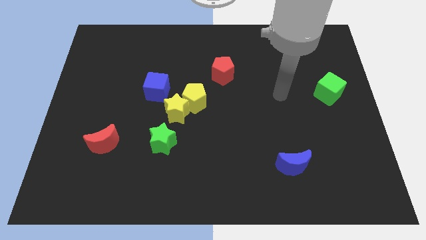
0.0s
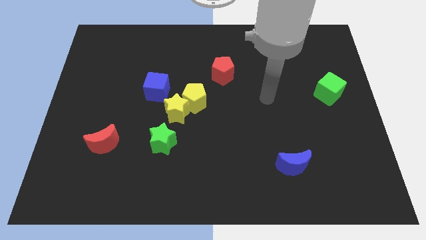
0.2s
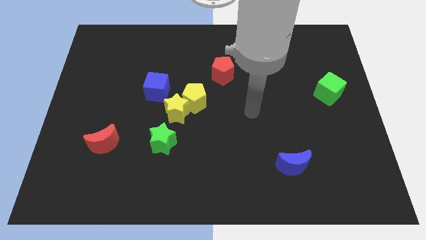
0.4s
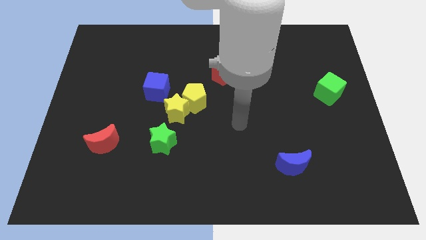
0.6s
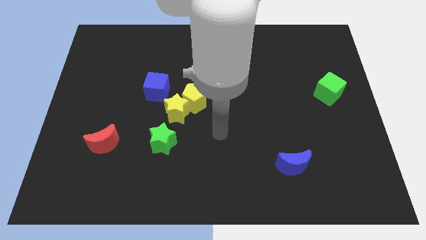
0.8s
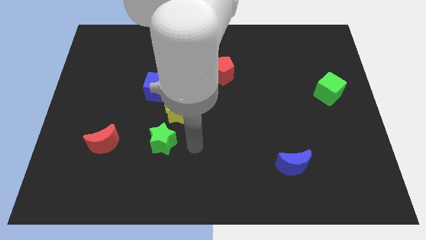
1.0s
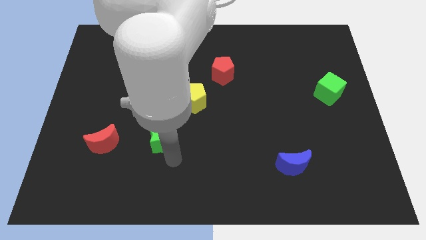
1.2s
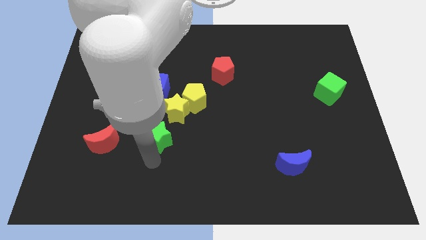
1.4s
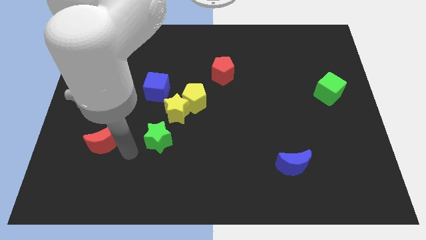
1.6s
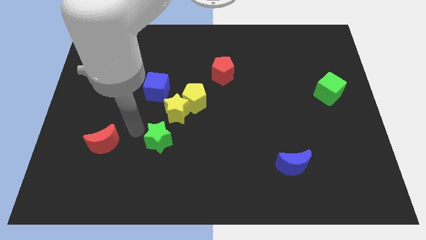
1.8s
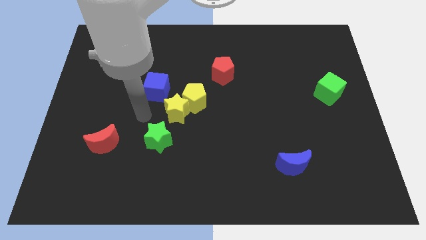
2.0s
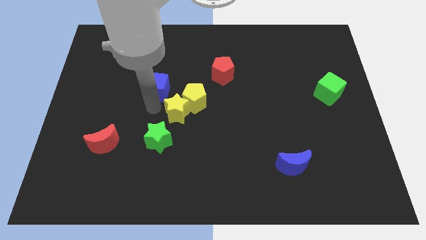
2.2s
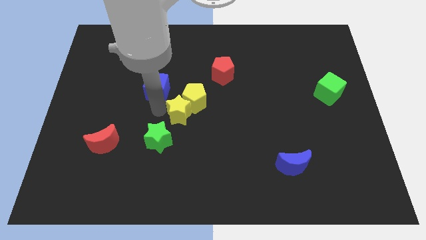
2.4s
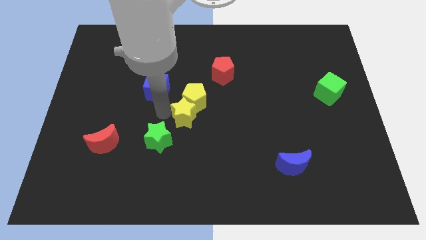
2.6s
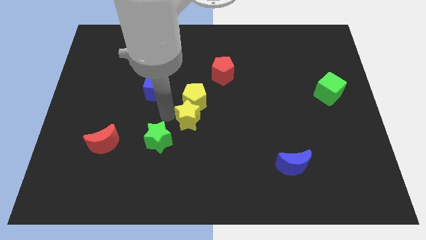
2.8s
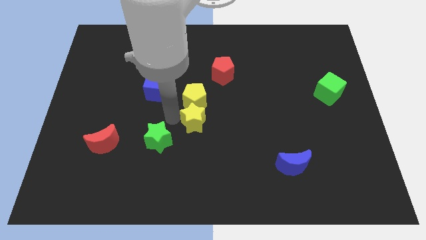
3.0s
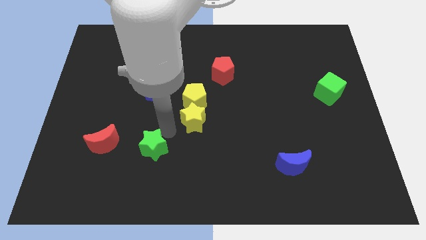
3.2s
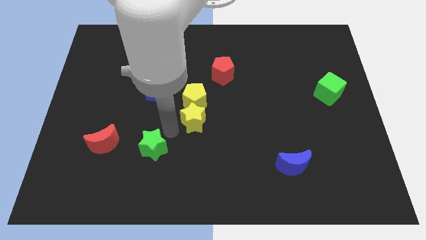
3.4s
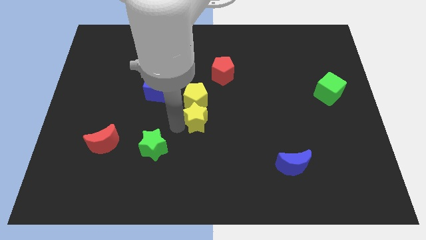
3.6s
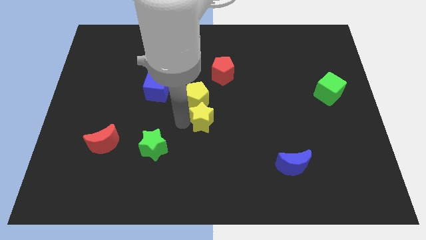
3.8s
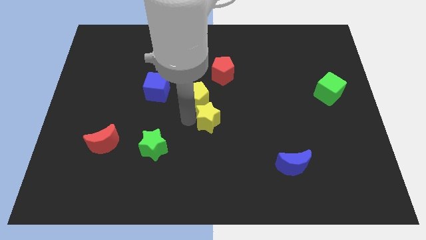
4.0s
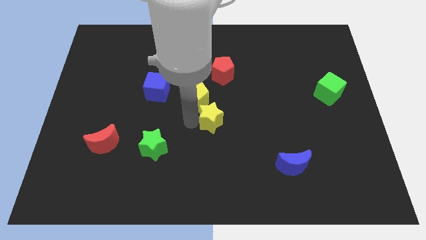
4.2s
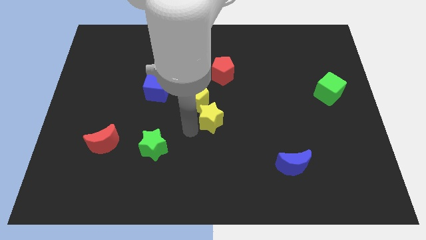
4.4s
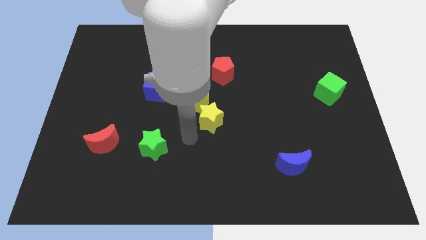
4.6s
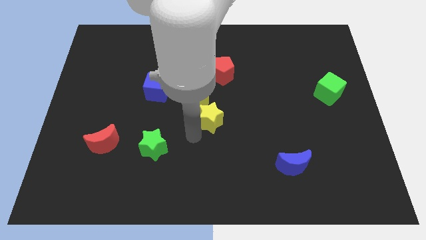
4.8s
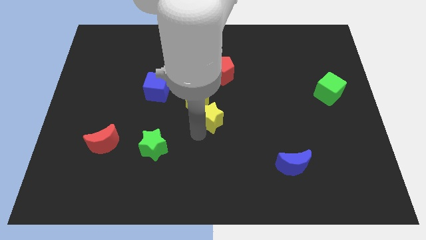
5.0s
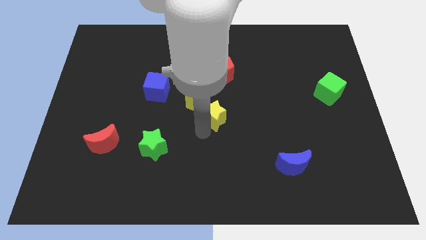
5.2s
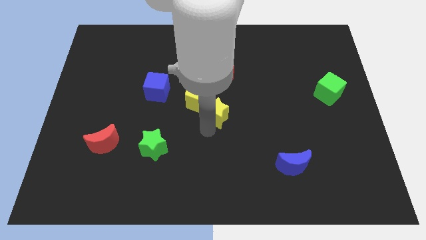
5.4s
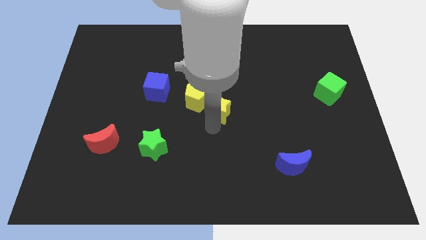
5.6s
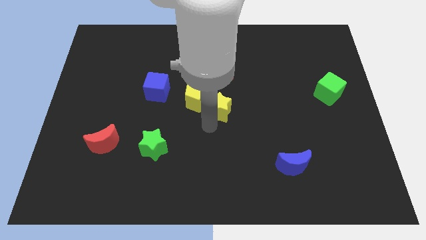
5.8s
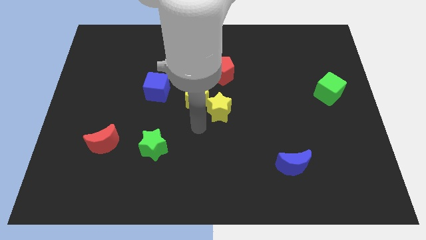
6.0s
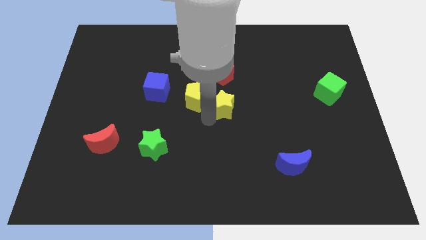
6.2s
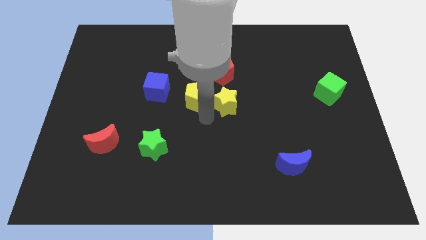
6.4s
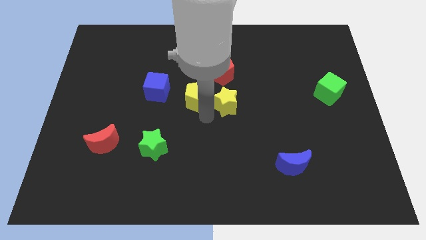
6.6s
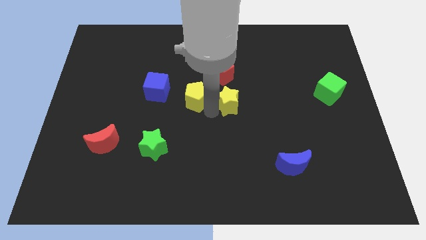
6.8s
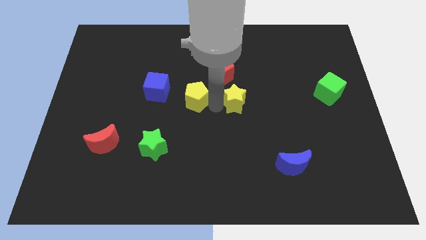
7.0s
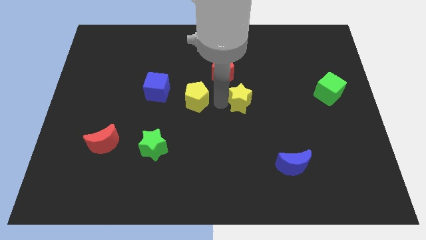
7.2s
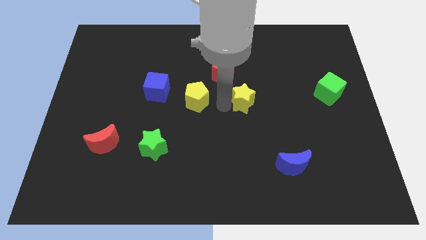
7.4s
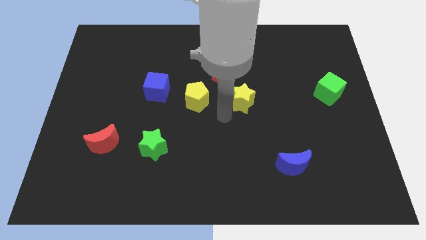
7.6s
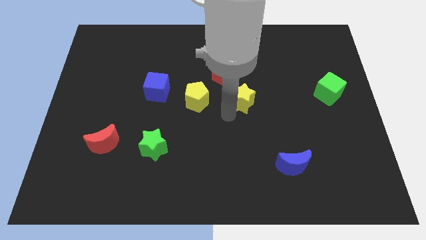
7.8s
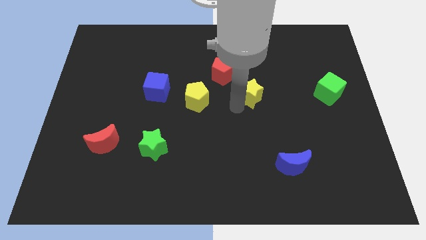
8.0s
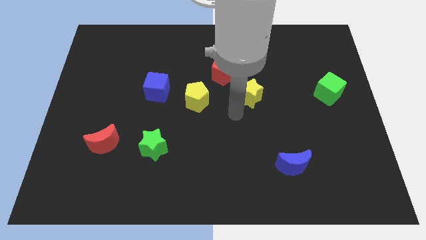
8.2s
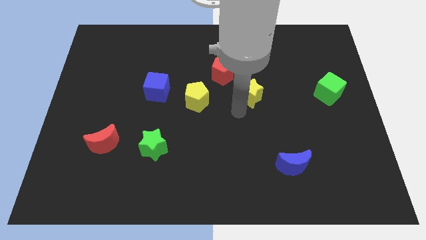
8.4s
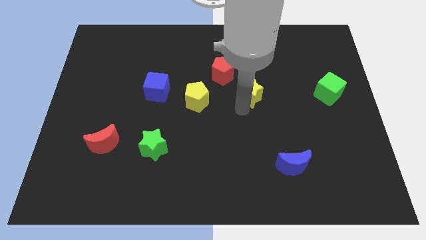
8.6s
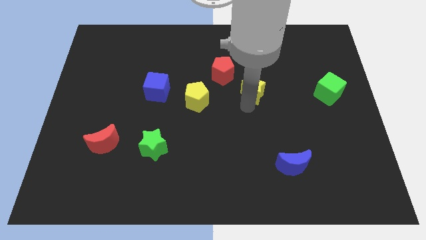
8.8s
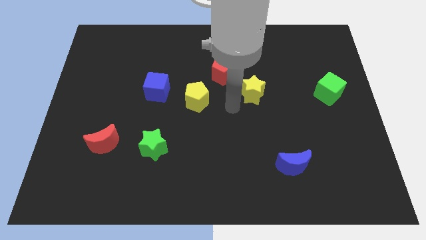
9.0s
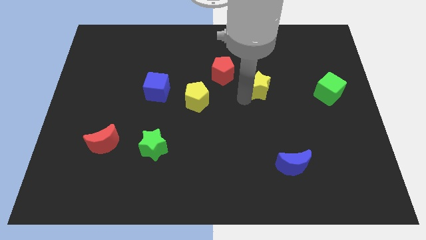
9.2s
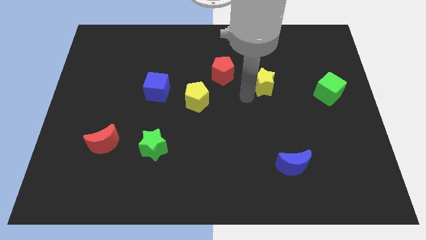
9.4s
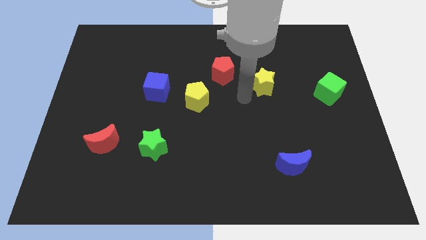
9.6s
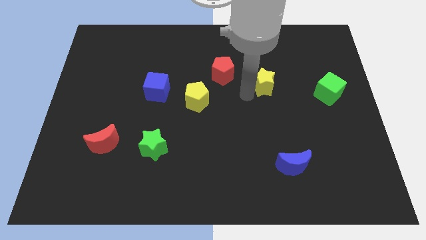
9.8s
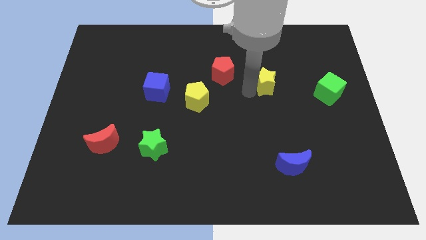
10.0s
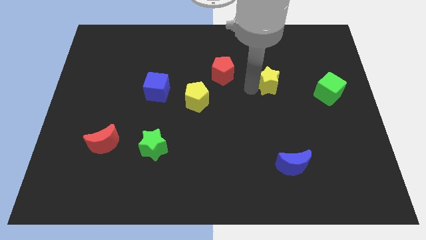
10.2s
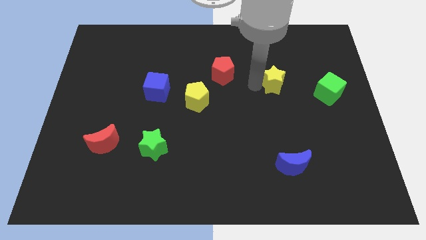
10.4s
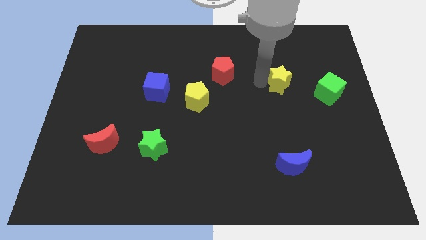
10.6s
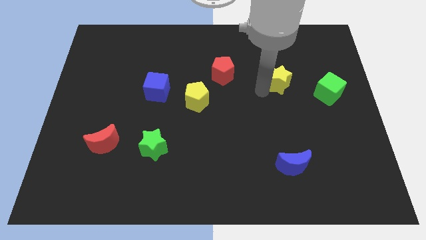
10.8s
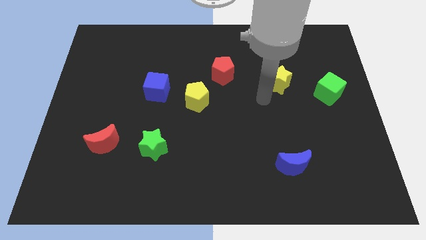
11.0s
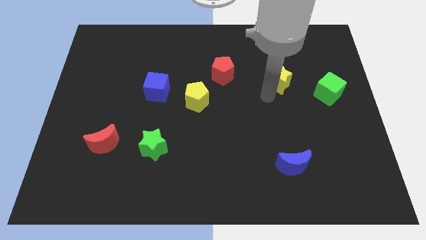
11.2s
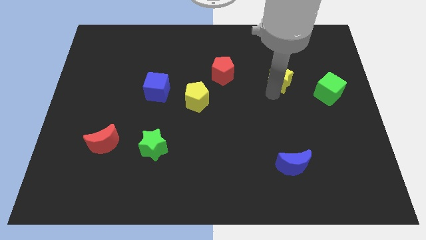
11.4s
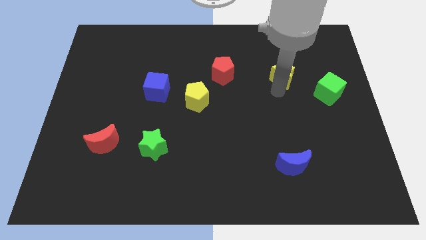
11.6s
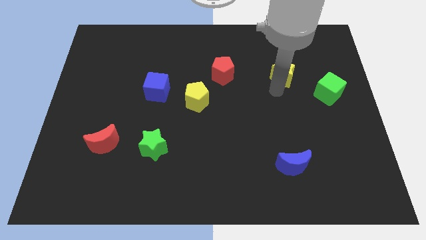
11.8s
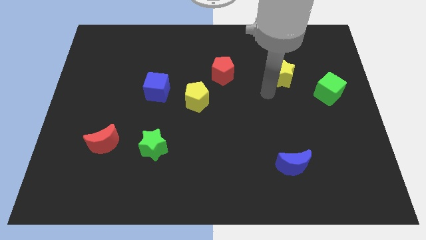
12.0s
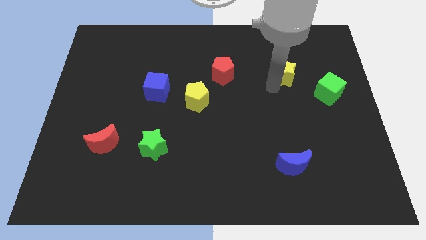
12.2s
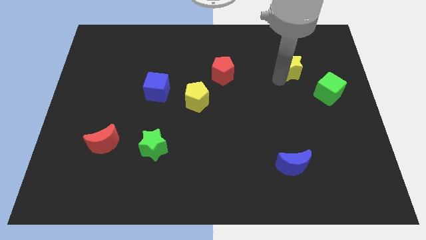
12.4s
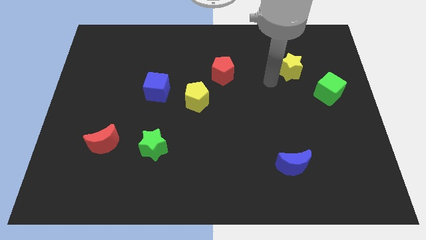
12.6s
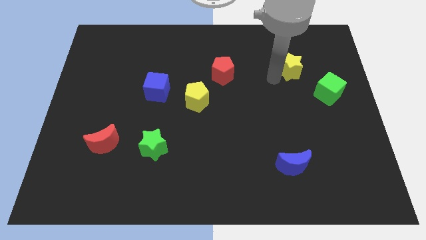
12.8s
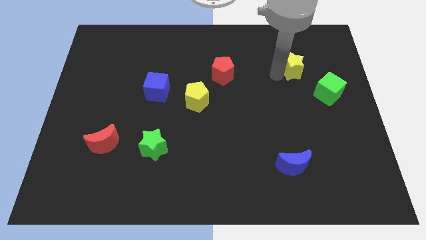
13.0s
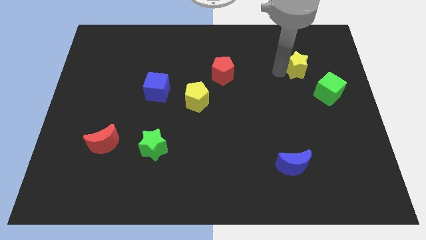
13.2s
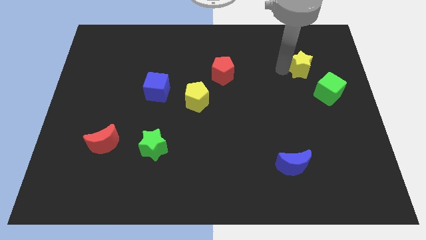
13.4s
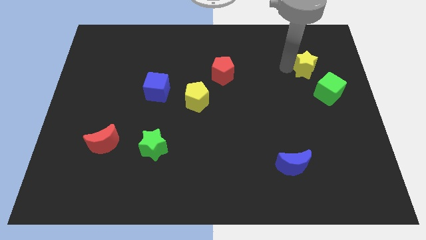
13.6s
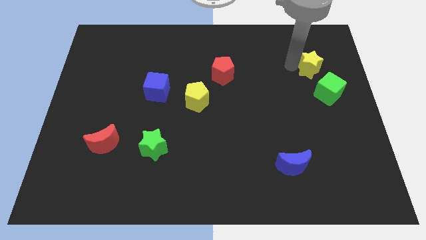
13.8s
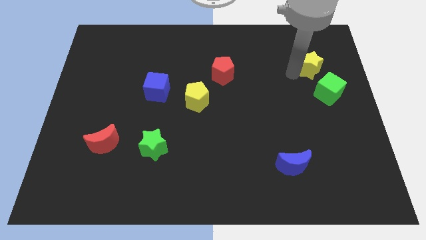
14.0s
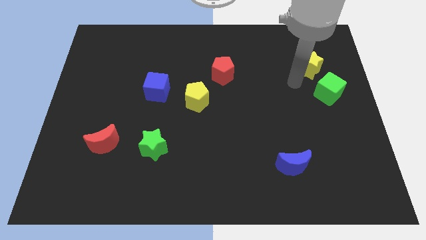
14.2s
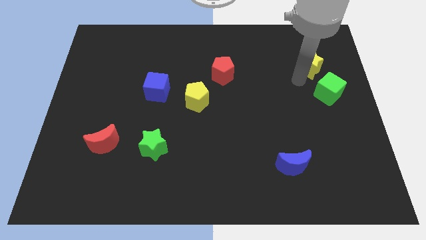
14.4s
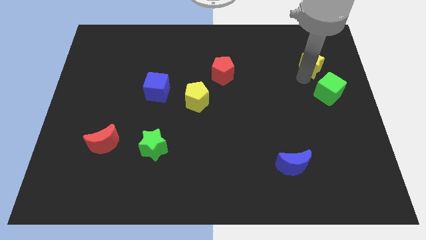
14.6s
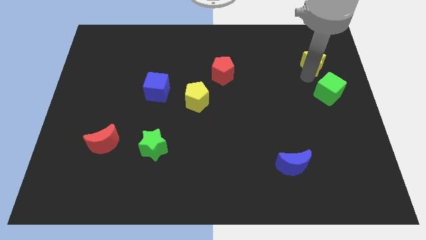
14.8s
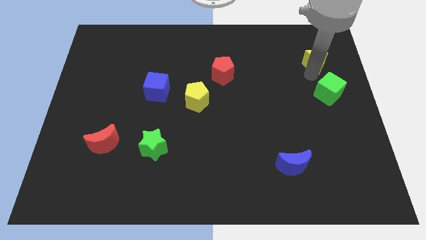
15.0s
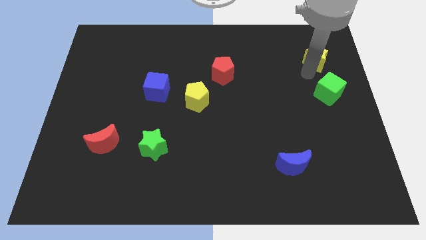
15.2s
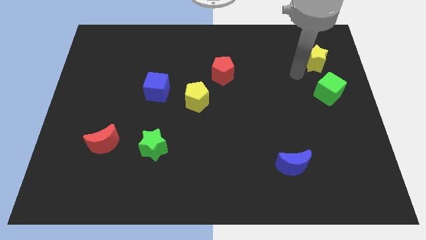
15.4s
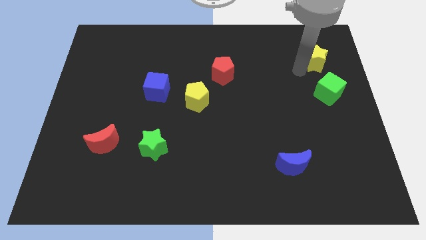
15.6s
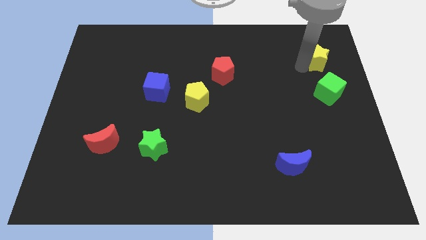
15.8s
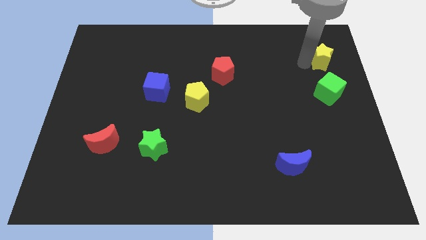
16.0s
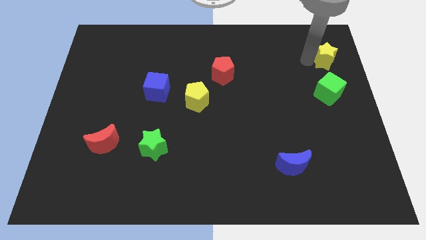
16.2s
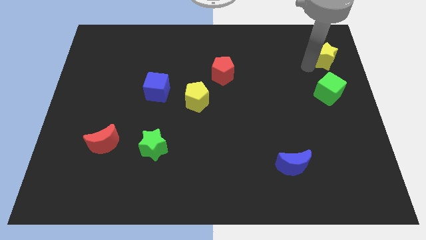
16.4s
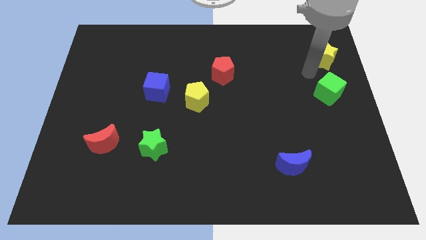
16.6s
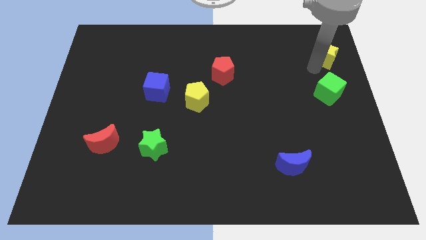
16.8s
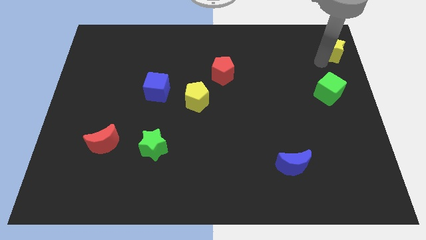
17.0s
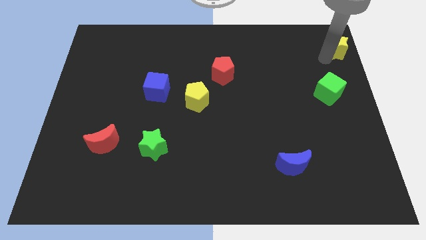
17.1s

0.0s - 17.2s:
move the yellow star to the upper right corner
